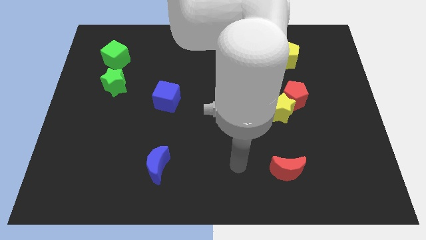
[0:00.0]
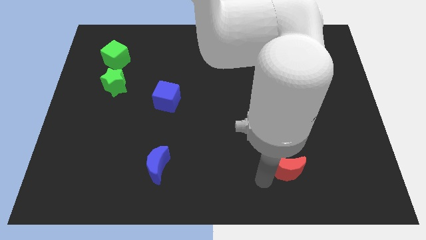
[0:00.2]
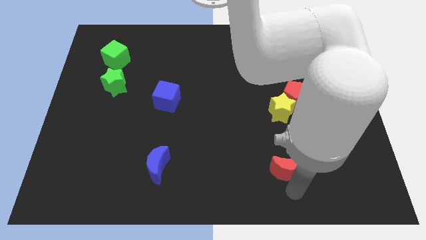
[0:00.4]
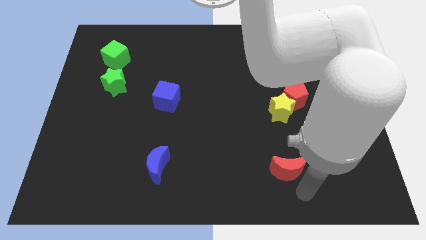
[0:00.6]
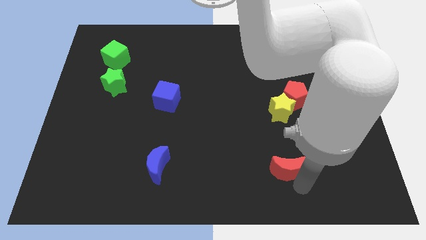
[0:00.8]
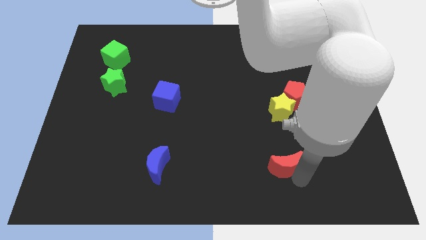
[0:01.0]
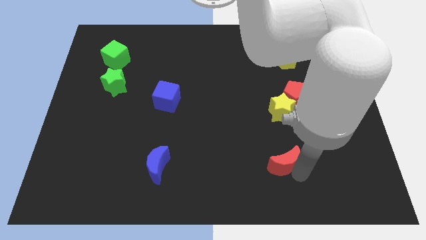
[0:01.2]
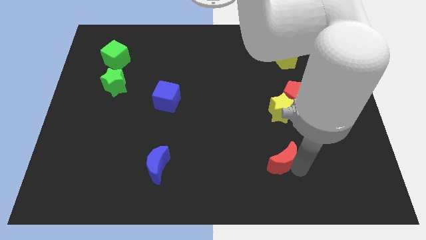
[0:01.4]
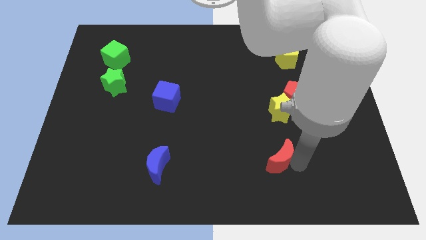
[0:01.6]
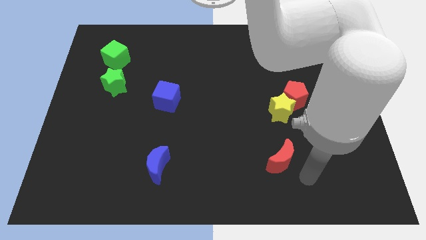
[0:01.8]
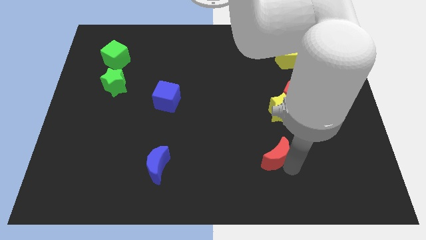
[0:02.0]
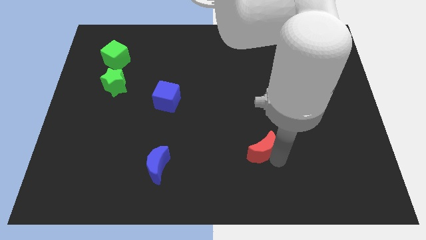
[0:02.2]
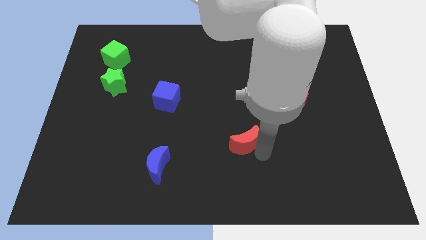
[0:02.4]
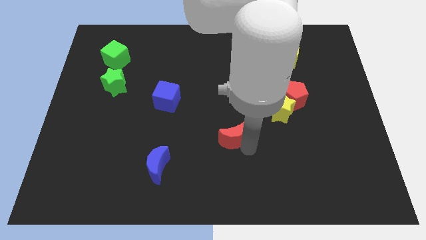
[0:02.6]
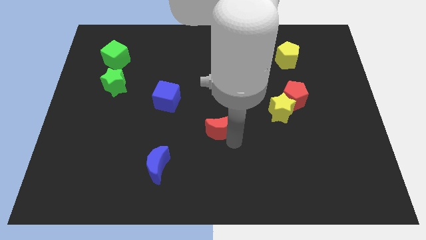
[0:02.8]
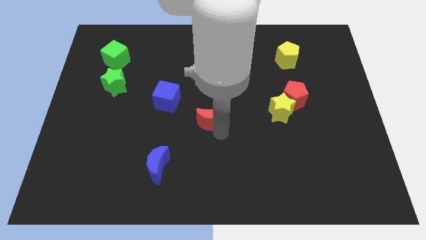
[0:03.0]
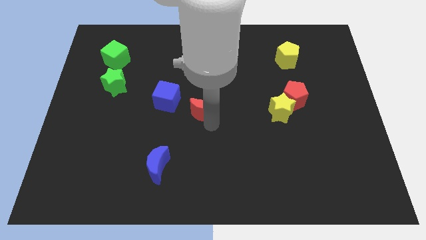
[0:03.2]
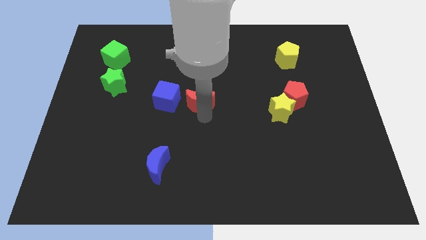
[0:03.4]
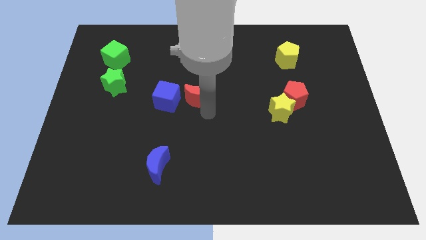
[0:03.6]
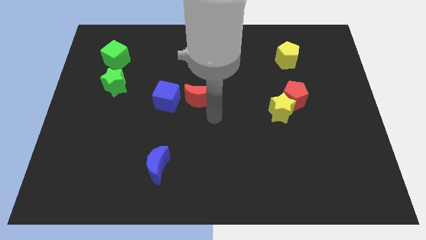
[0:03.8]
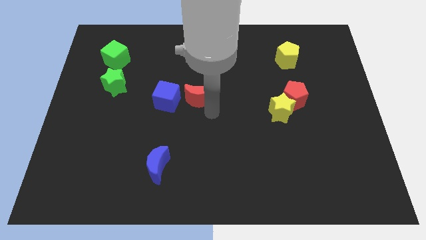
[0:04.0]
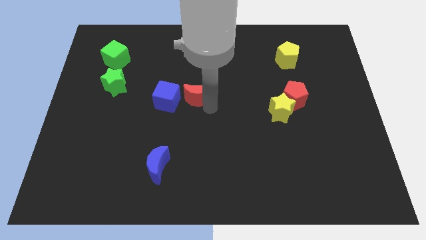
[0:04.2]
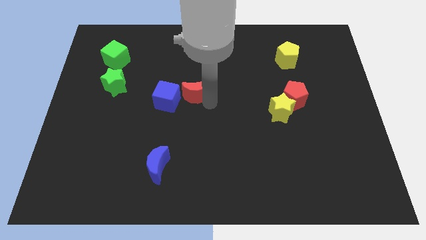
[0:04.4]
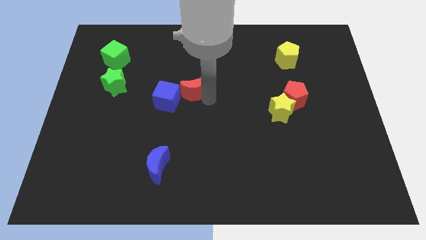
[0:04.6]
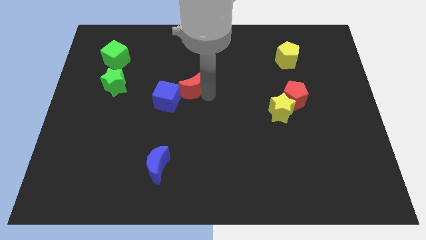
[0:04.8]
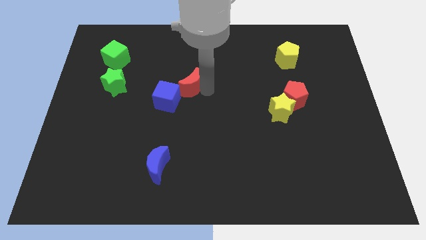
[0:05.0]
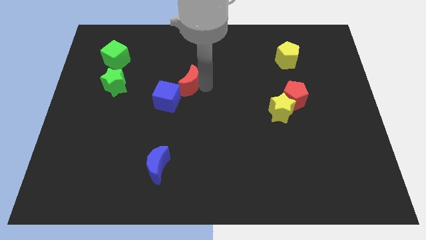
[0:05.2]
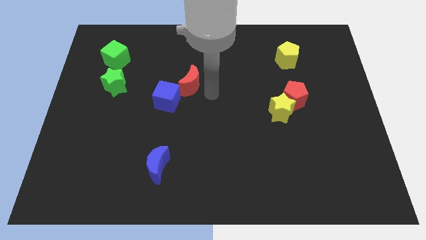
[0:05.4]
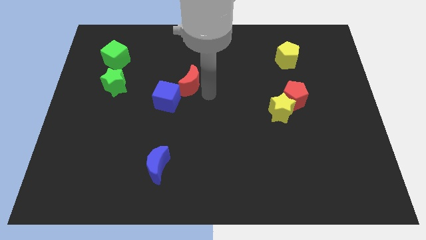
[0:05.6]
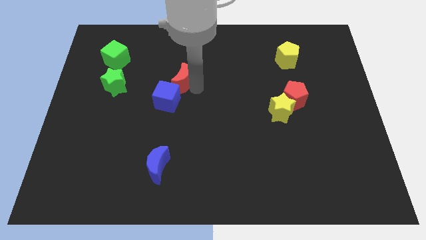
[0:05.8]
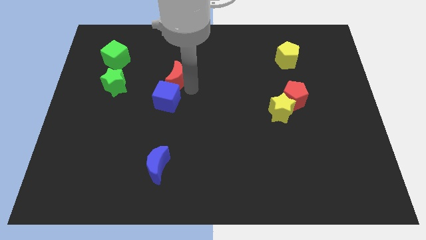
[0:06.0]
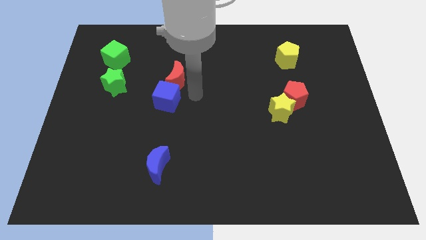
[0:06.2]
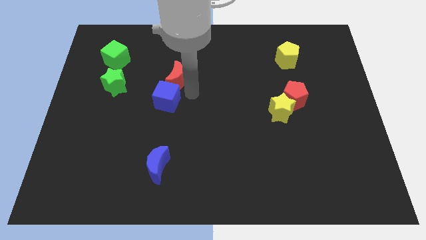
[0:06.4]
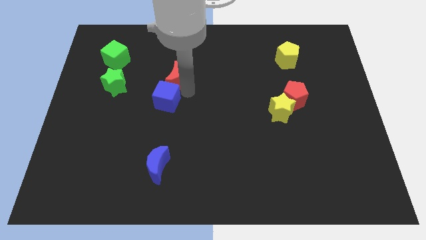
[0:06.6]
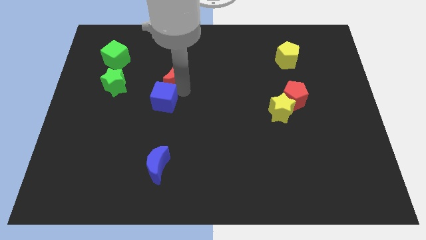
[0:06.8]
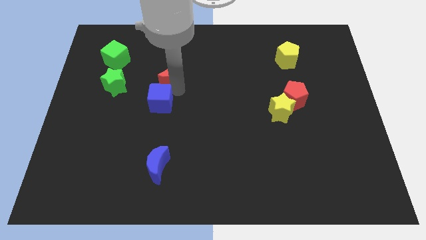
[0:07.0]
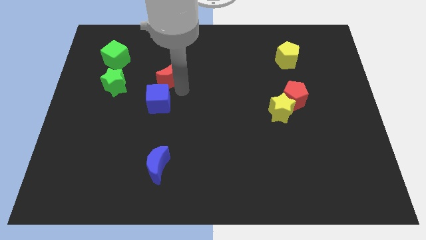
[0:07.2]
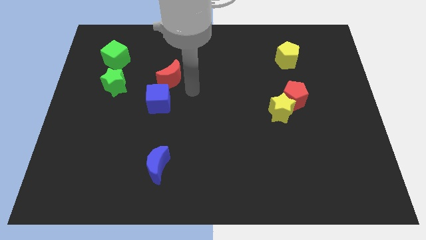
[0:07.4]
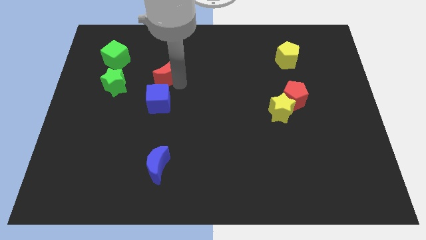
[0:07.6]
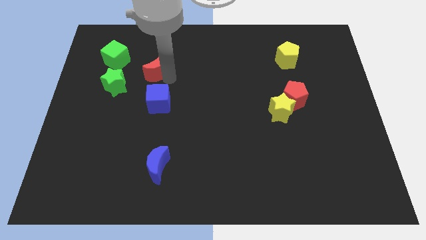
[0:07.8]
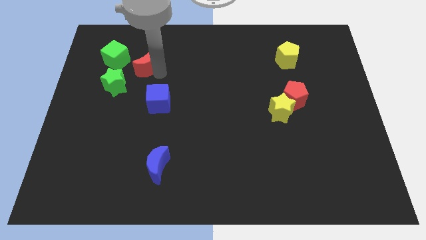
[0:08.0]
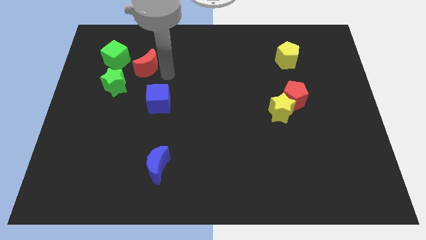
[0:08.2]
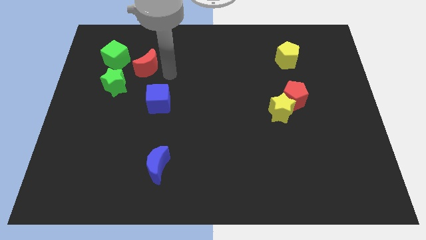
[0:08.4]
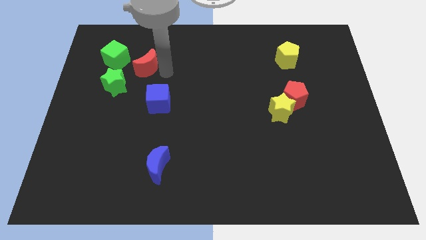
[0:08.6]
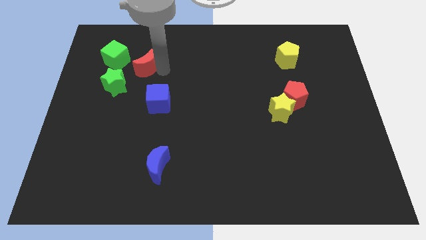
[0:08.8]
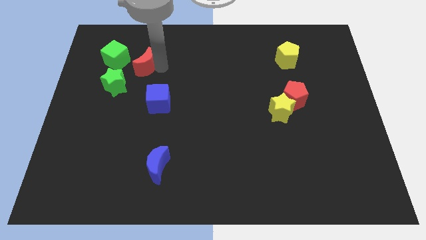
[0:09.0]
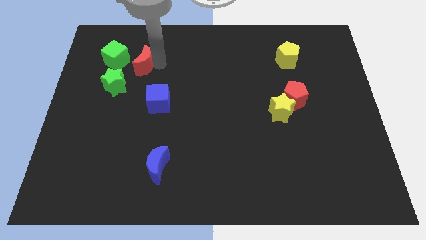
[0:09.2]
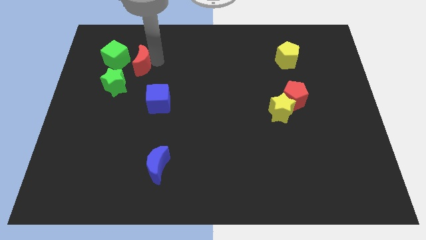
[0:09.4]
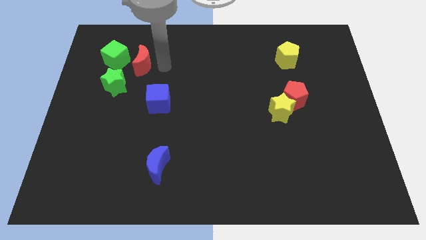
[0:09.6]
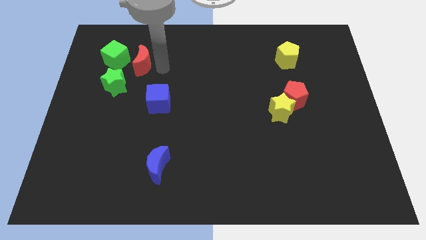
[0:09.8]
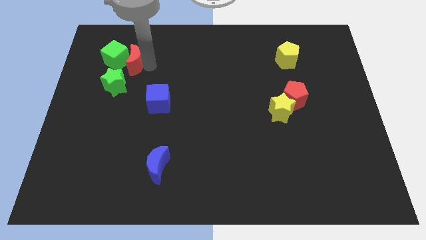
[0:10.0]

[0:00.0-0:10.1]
push the red moon close to the green cube

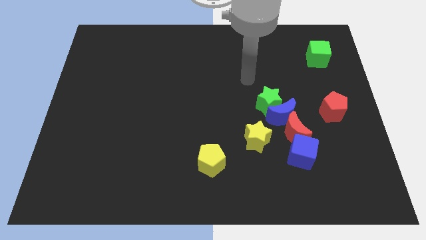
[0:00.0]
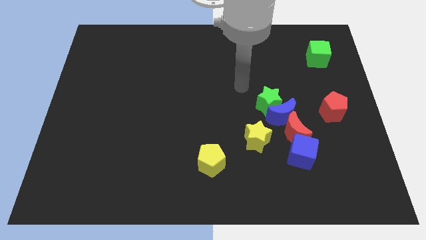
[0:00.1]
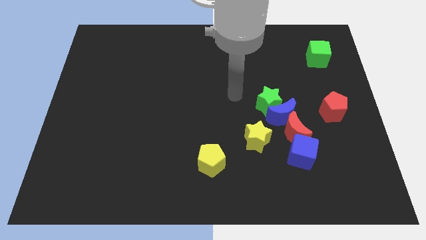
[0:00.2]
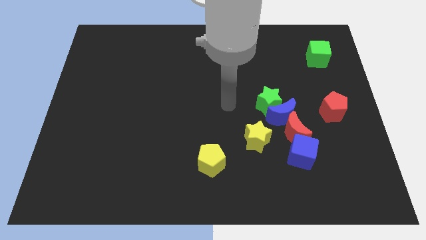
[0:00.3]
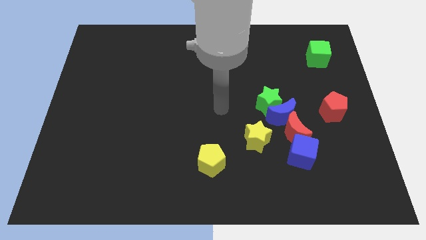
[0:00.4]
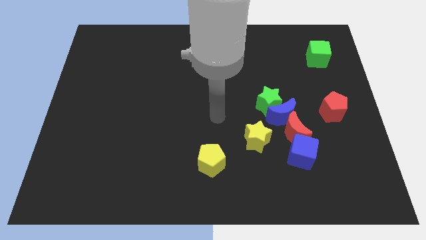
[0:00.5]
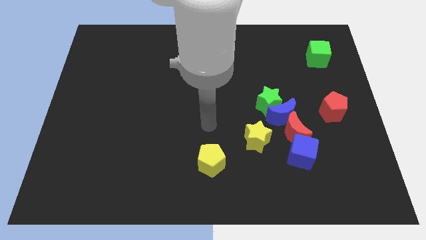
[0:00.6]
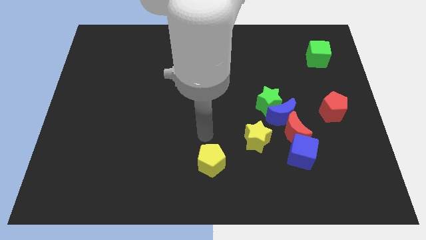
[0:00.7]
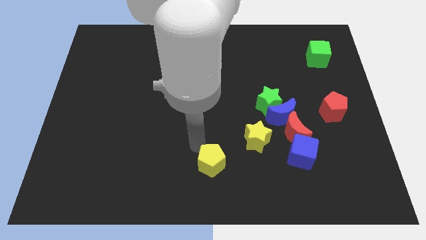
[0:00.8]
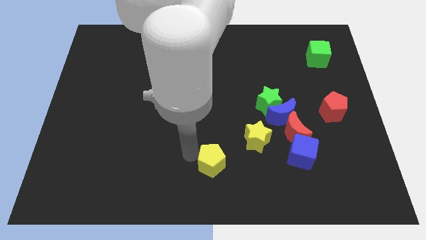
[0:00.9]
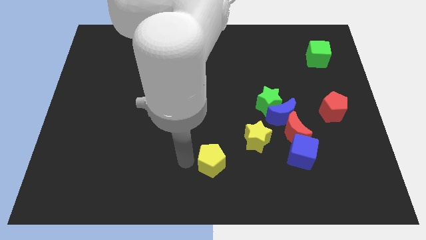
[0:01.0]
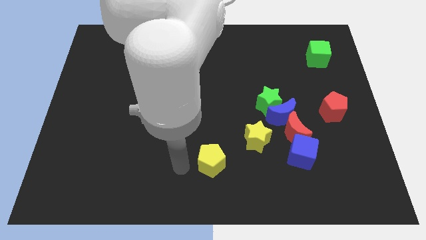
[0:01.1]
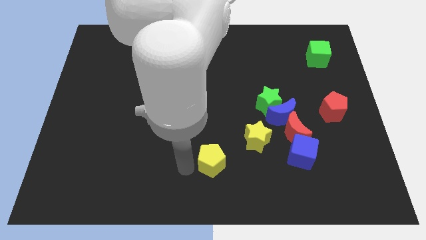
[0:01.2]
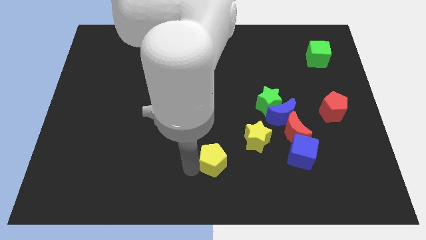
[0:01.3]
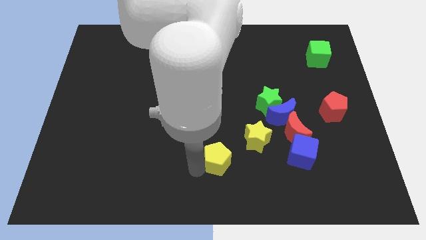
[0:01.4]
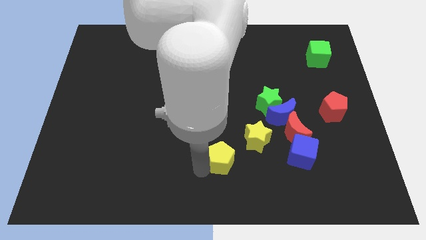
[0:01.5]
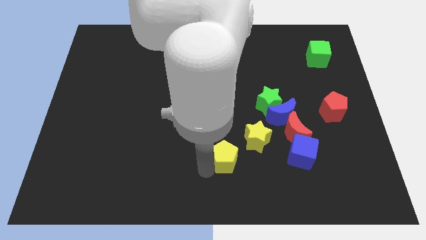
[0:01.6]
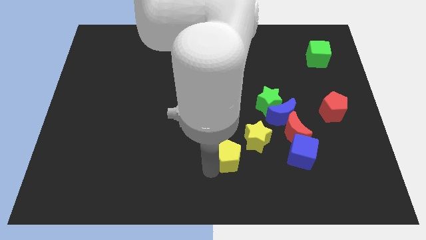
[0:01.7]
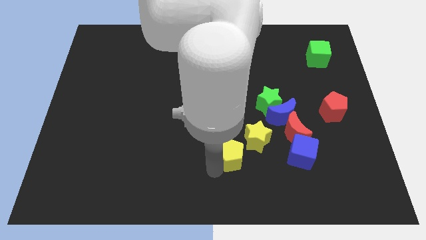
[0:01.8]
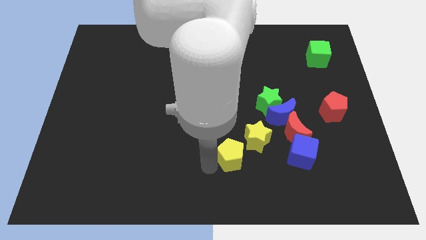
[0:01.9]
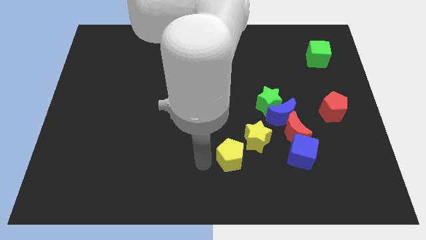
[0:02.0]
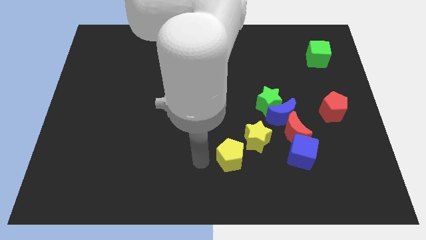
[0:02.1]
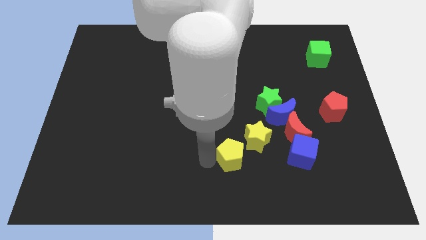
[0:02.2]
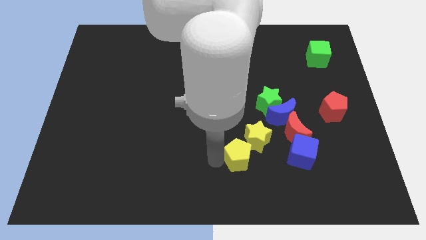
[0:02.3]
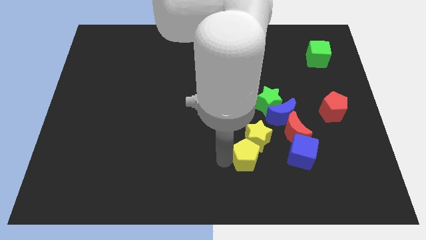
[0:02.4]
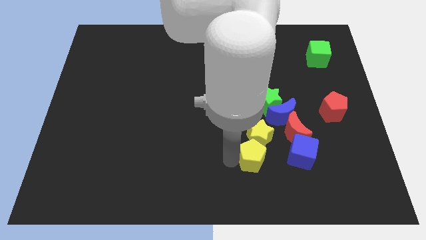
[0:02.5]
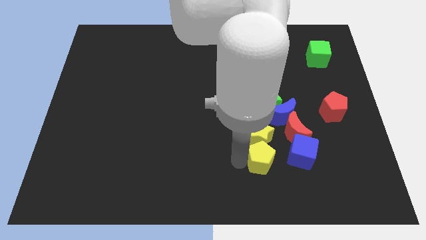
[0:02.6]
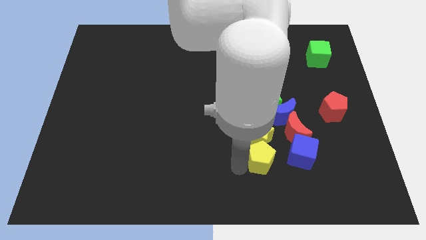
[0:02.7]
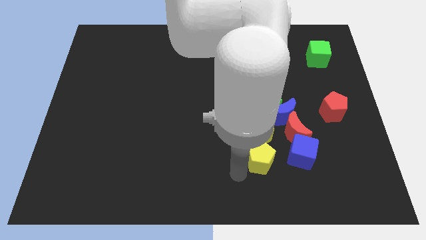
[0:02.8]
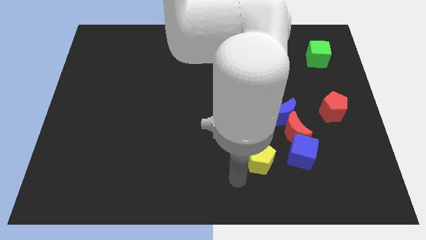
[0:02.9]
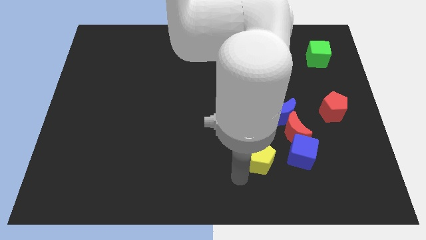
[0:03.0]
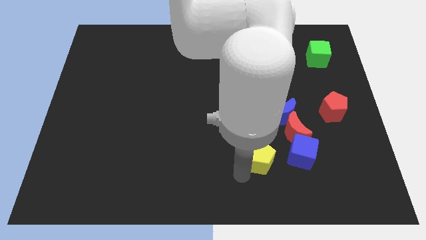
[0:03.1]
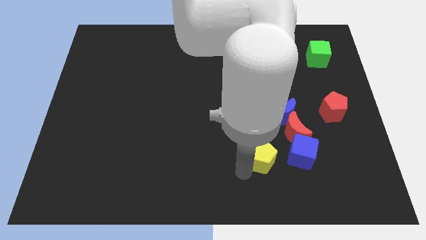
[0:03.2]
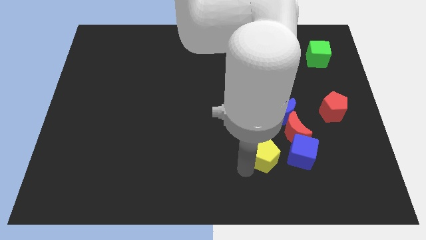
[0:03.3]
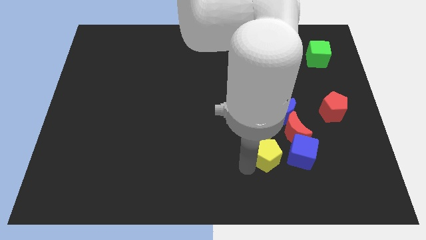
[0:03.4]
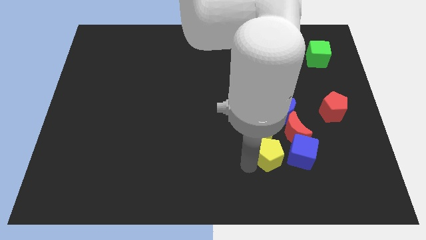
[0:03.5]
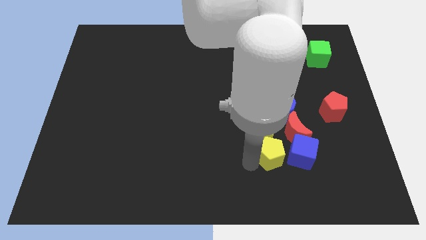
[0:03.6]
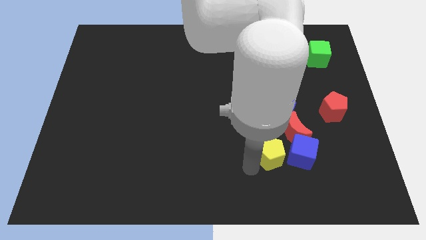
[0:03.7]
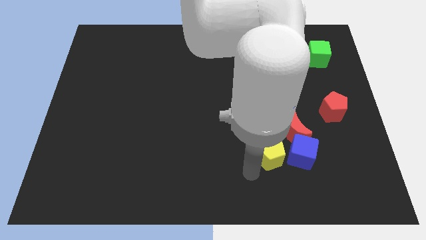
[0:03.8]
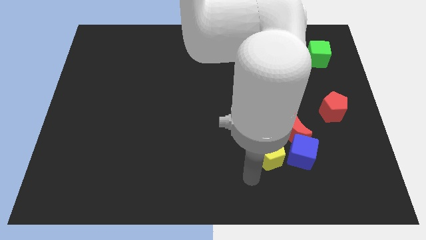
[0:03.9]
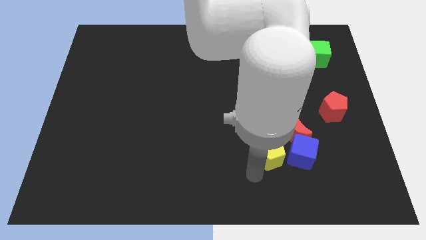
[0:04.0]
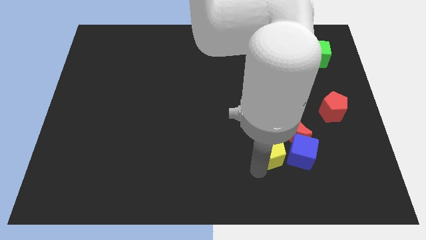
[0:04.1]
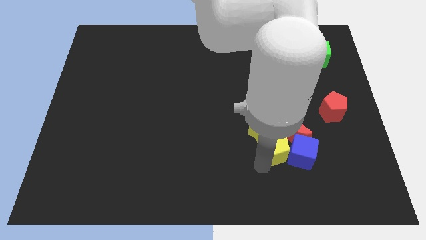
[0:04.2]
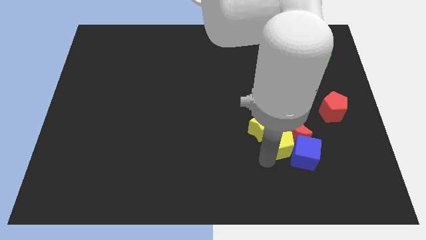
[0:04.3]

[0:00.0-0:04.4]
push the yellow pentagon next to the red moon
